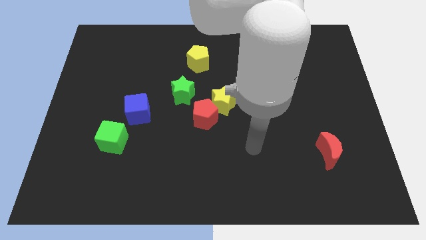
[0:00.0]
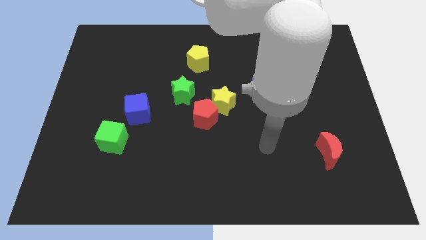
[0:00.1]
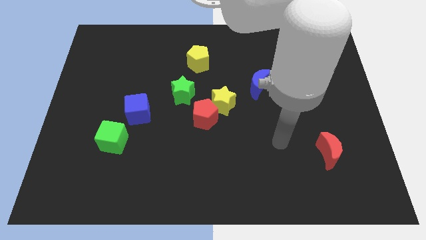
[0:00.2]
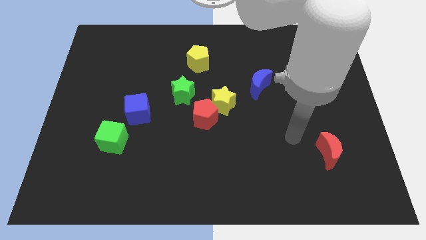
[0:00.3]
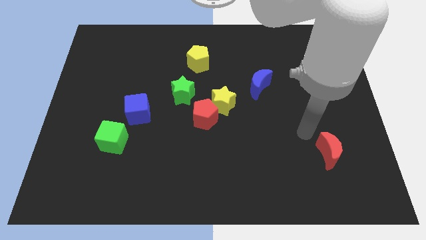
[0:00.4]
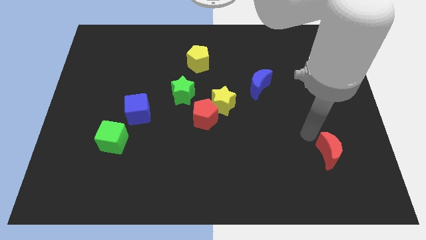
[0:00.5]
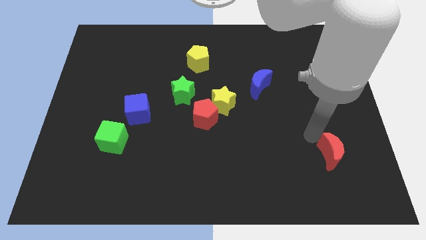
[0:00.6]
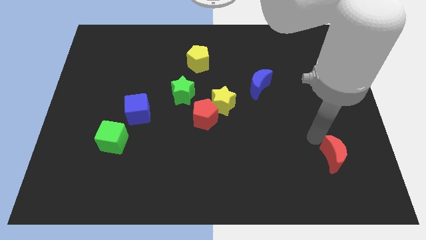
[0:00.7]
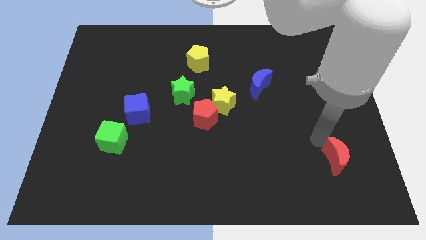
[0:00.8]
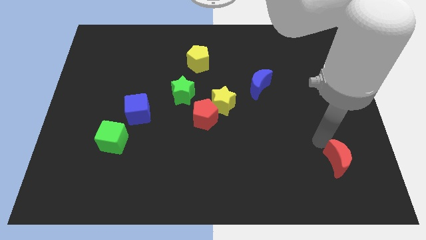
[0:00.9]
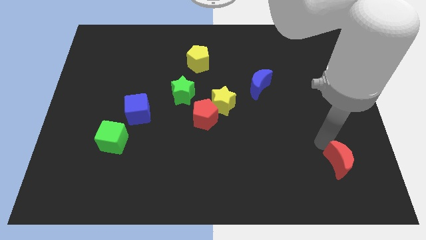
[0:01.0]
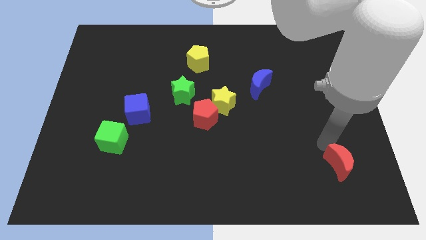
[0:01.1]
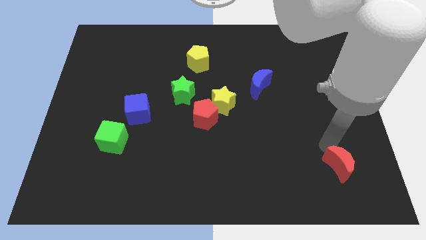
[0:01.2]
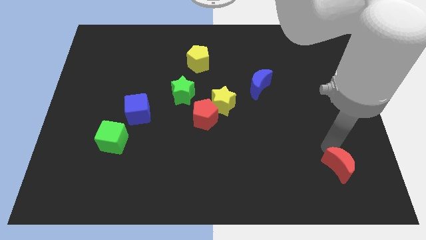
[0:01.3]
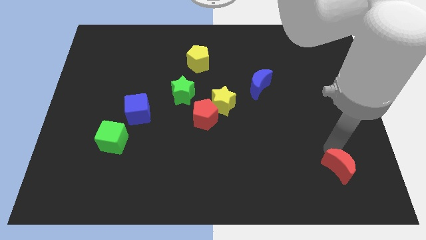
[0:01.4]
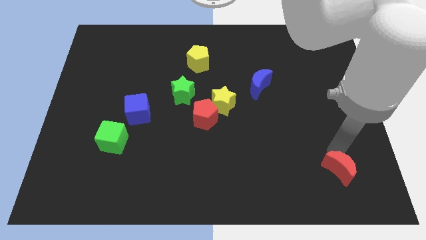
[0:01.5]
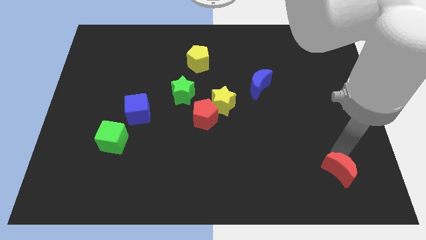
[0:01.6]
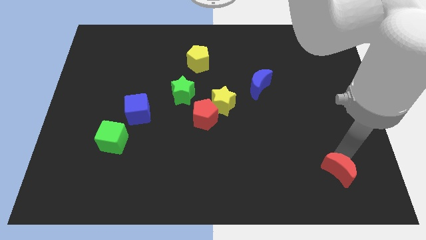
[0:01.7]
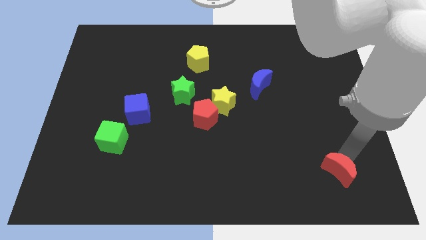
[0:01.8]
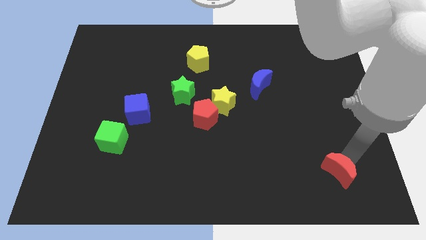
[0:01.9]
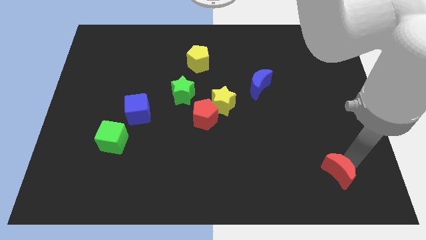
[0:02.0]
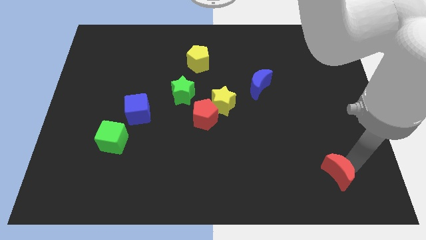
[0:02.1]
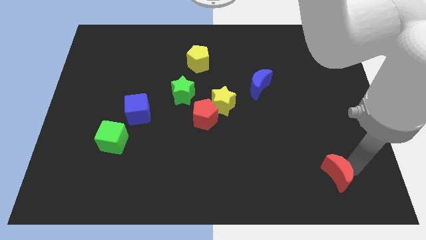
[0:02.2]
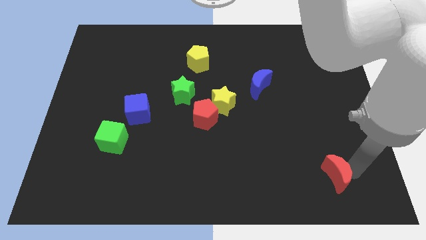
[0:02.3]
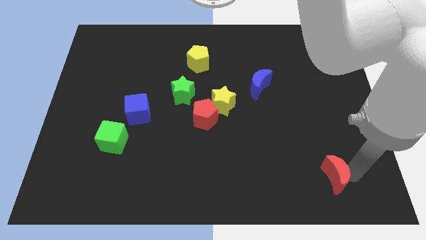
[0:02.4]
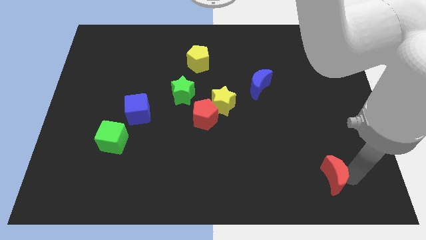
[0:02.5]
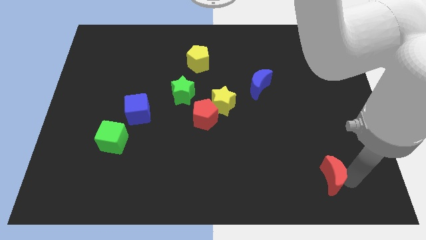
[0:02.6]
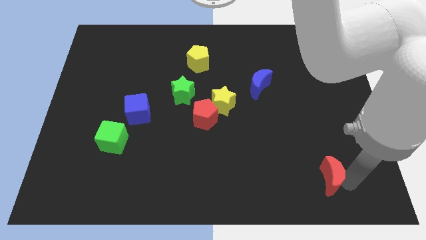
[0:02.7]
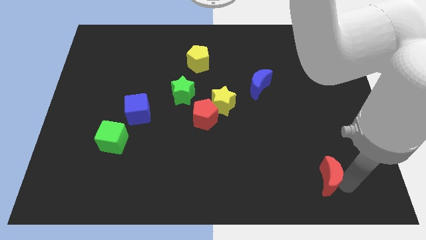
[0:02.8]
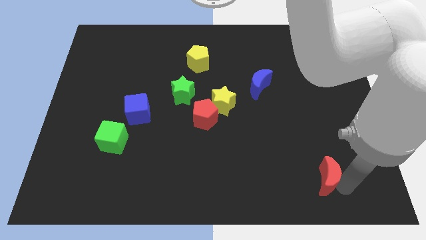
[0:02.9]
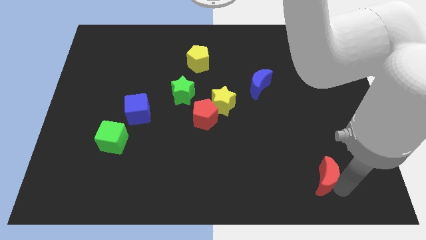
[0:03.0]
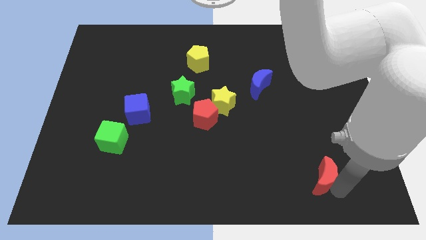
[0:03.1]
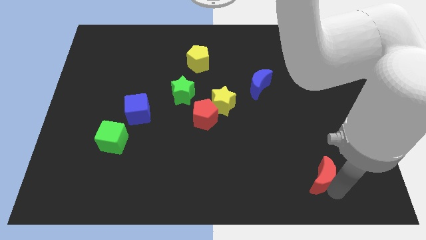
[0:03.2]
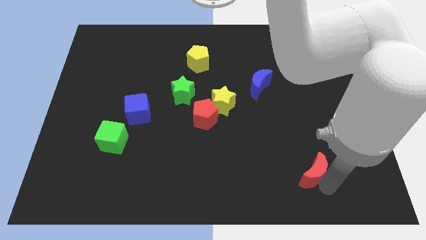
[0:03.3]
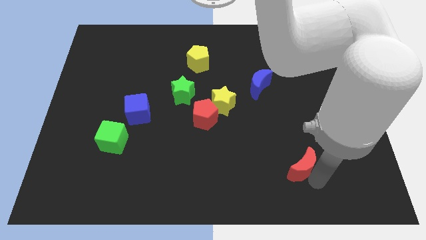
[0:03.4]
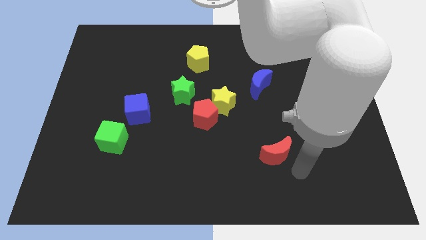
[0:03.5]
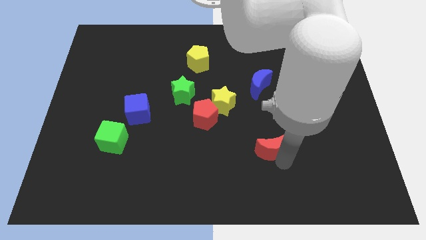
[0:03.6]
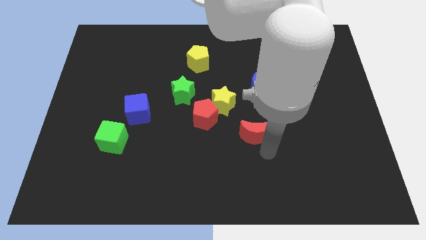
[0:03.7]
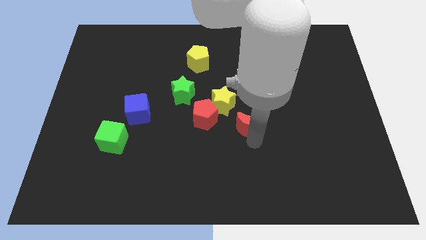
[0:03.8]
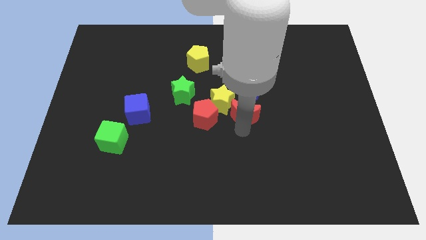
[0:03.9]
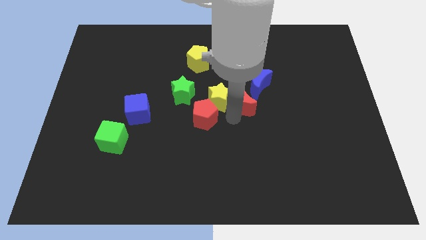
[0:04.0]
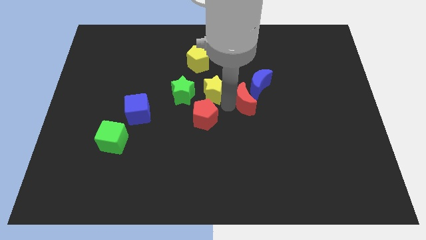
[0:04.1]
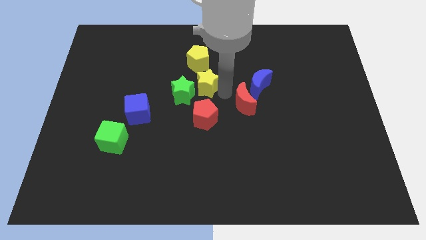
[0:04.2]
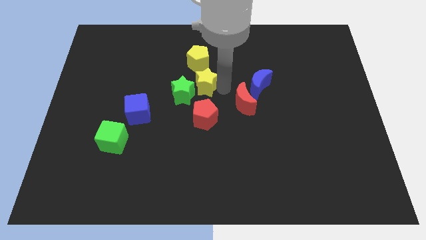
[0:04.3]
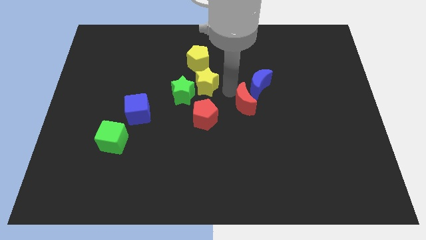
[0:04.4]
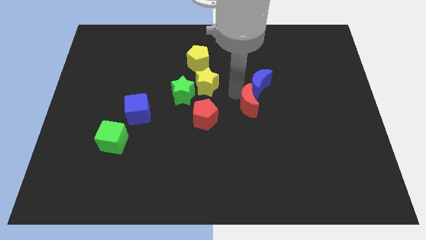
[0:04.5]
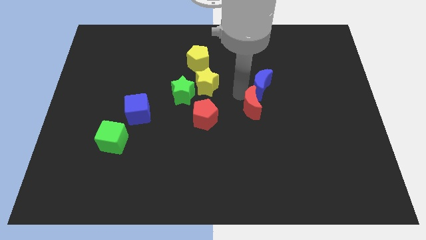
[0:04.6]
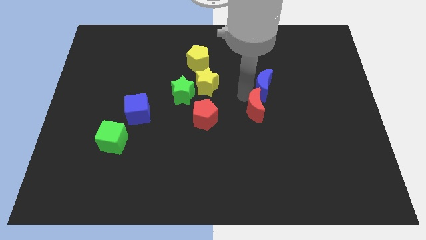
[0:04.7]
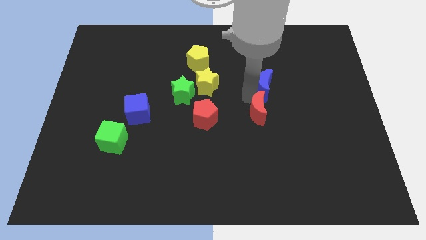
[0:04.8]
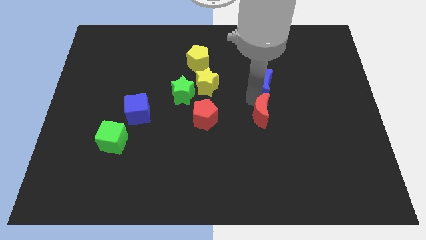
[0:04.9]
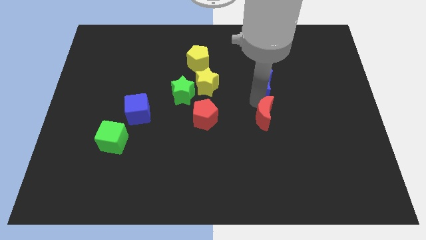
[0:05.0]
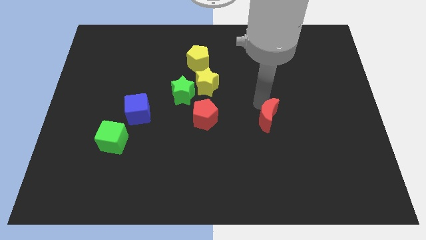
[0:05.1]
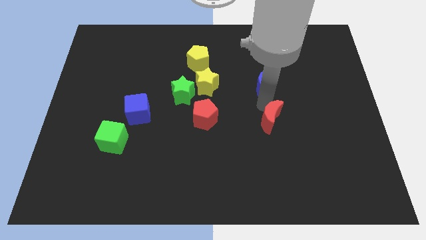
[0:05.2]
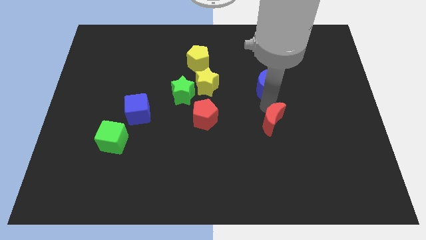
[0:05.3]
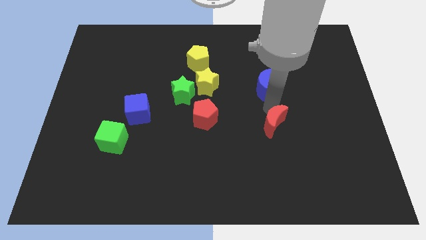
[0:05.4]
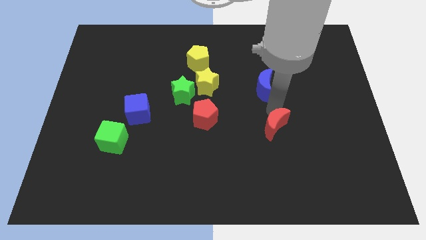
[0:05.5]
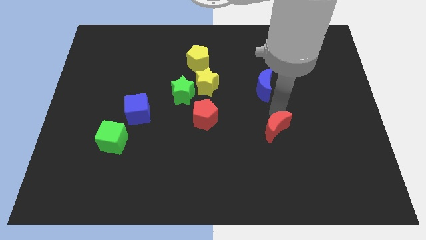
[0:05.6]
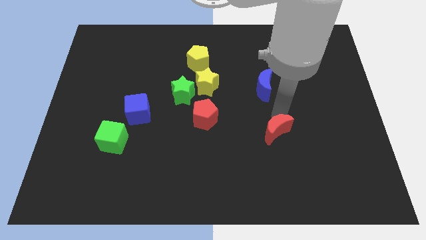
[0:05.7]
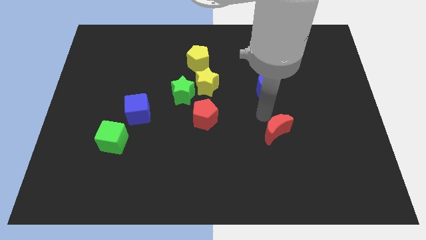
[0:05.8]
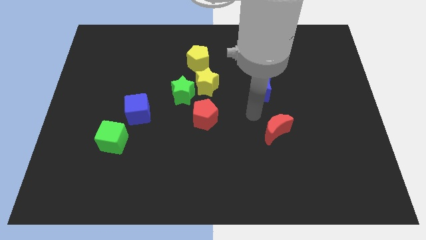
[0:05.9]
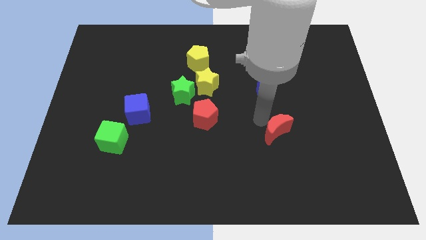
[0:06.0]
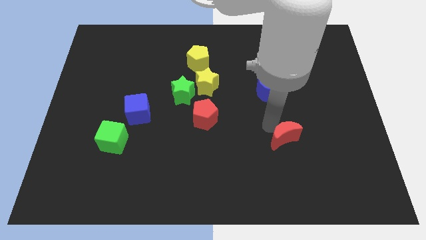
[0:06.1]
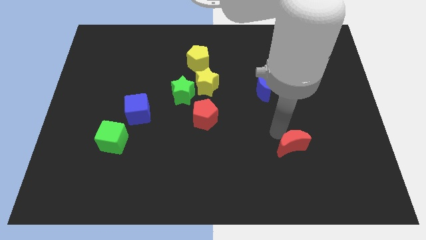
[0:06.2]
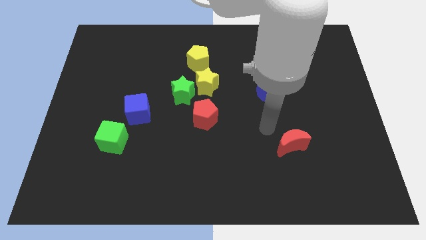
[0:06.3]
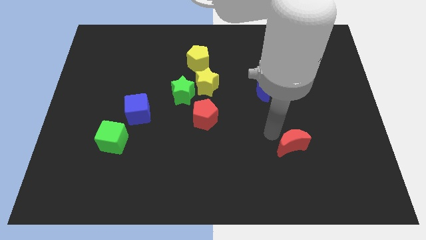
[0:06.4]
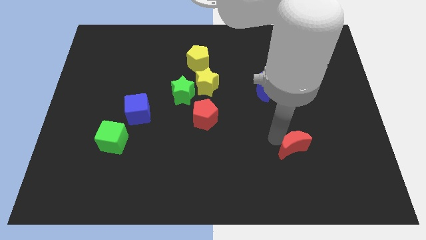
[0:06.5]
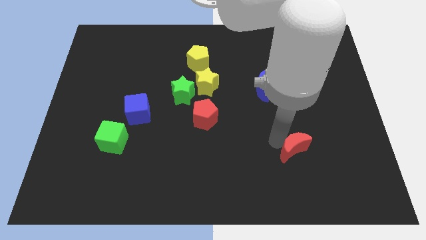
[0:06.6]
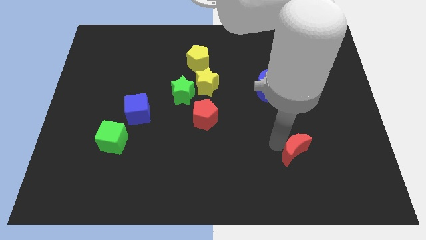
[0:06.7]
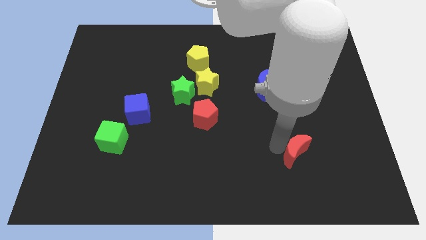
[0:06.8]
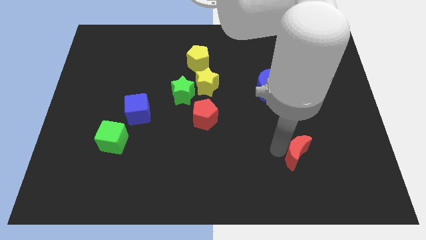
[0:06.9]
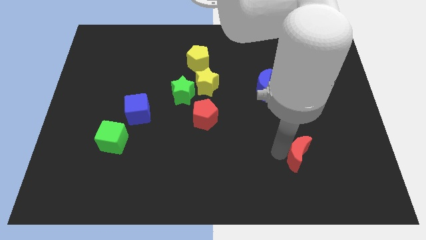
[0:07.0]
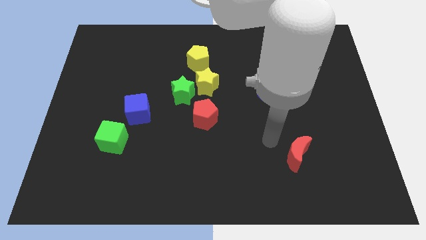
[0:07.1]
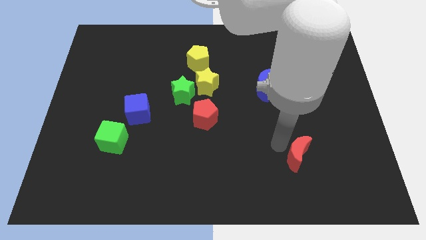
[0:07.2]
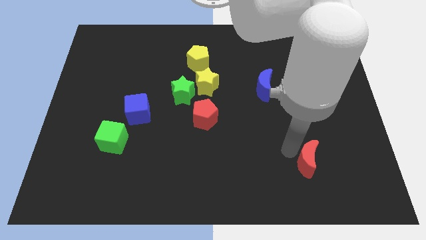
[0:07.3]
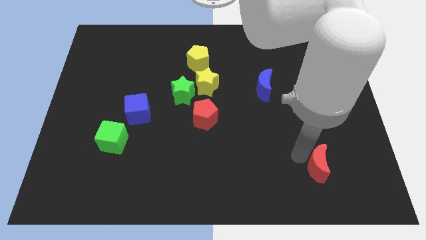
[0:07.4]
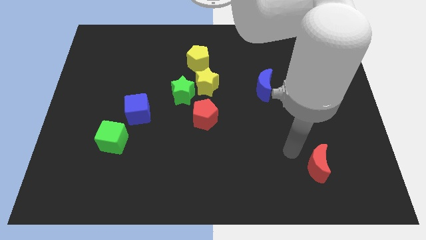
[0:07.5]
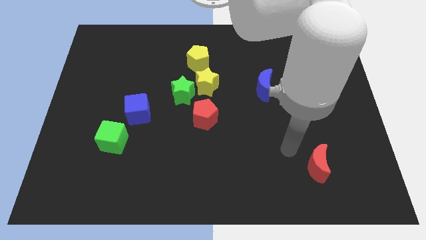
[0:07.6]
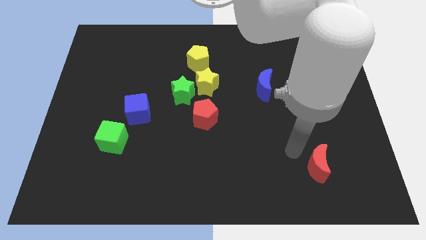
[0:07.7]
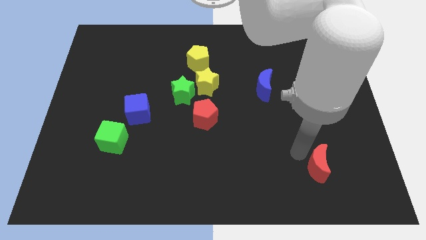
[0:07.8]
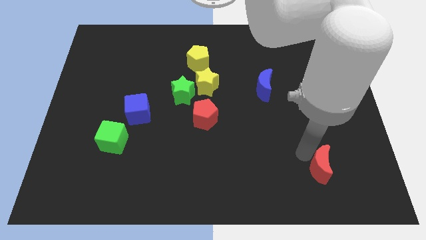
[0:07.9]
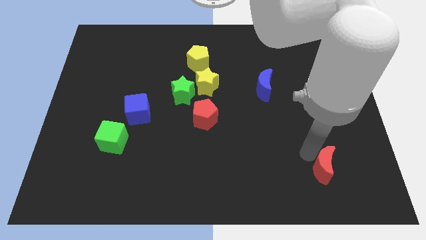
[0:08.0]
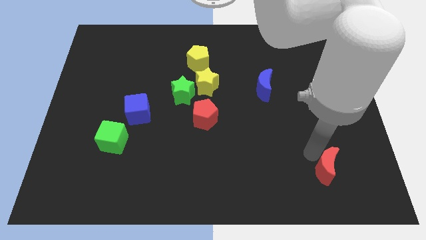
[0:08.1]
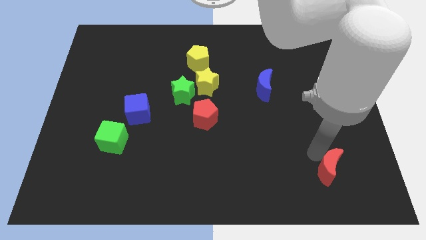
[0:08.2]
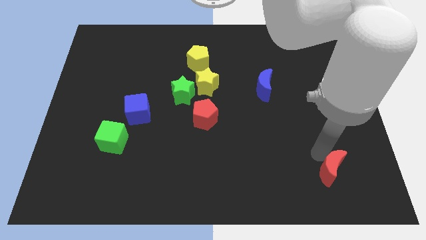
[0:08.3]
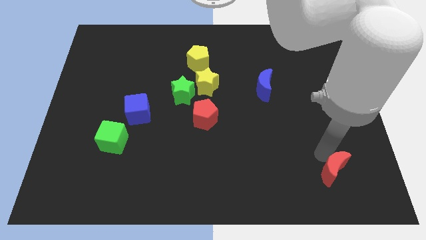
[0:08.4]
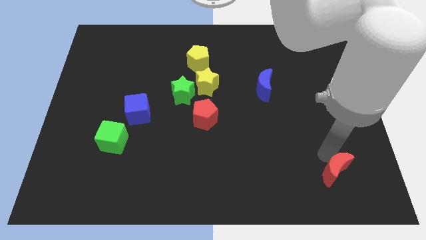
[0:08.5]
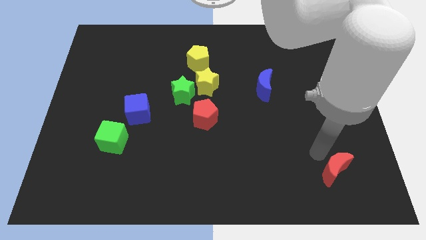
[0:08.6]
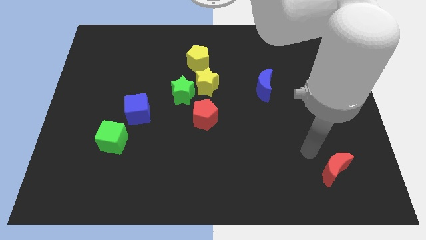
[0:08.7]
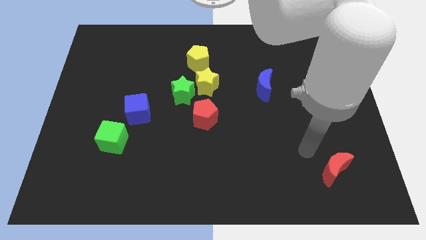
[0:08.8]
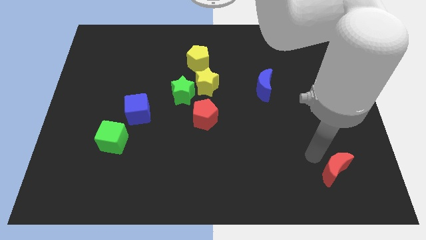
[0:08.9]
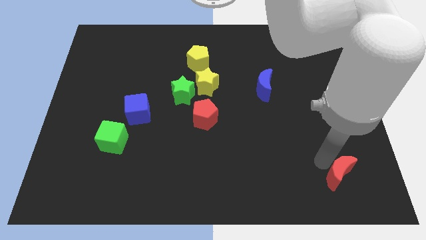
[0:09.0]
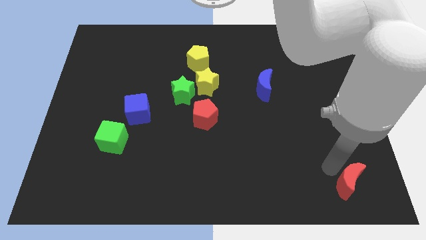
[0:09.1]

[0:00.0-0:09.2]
slide the red moon to the bottom right
